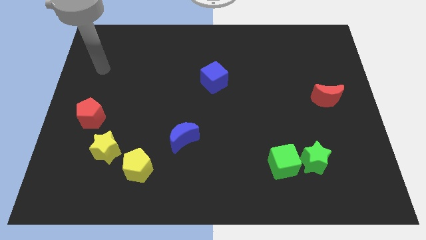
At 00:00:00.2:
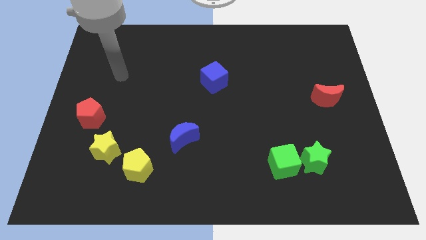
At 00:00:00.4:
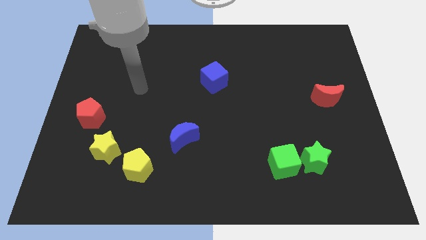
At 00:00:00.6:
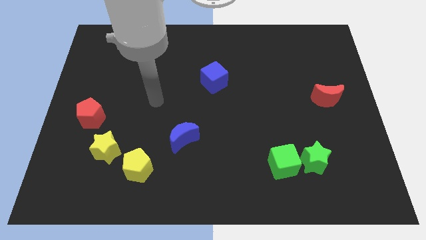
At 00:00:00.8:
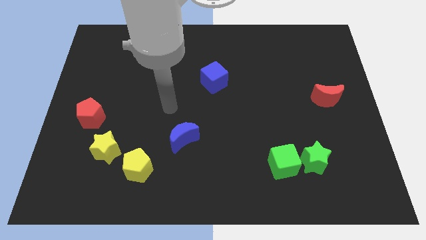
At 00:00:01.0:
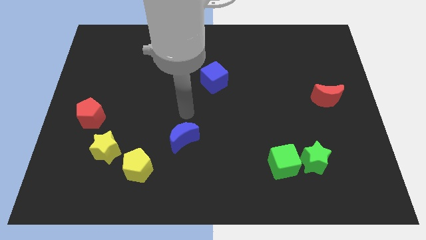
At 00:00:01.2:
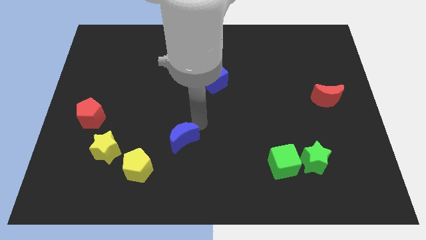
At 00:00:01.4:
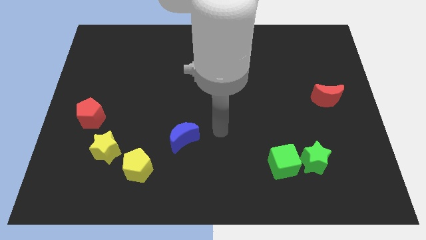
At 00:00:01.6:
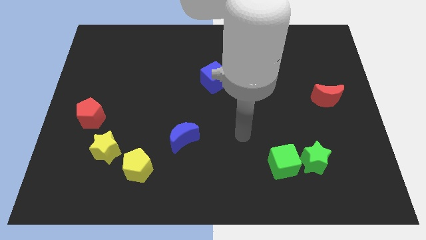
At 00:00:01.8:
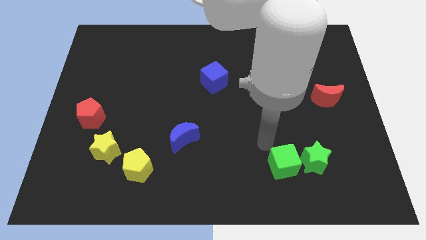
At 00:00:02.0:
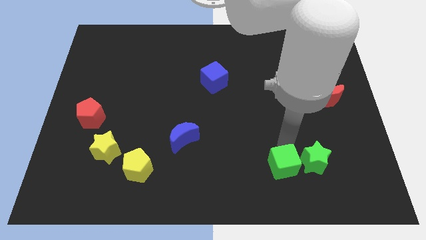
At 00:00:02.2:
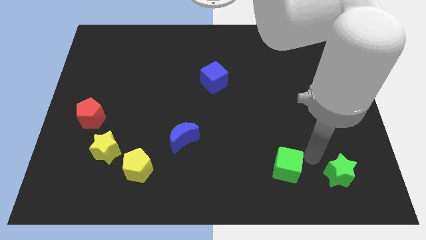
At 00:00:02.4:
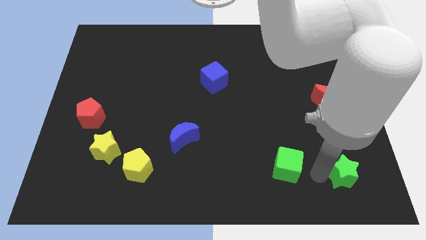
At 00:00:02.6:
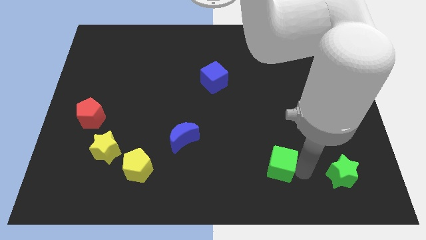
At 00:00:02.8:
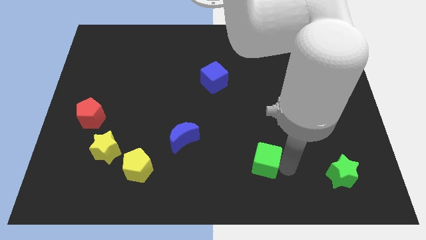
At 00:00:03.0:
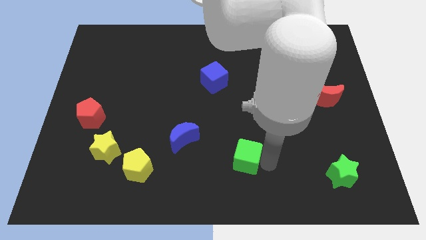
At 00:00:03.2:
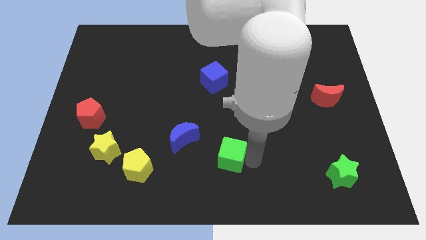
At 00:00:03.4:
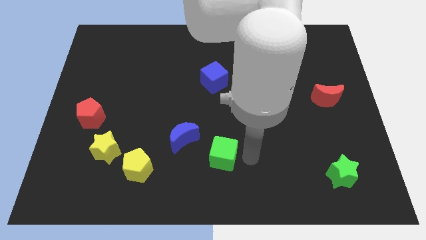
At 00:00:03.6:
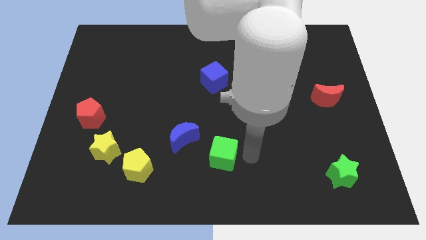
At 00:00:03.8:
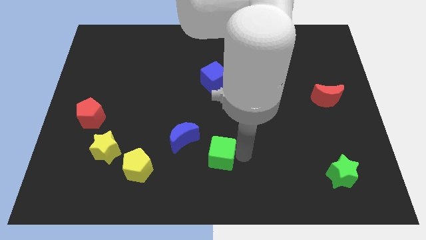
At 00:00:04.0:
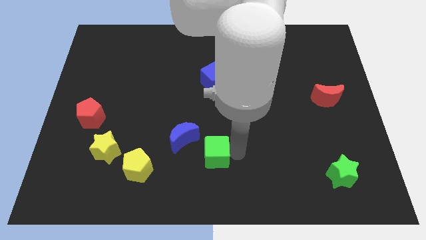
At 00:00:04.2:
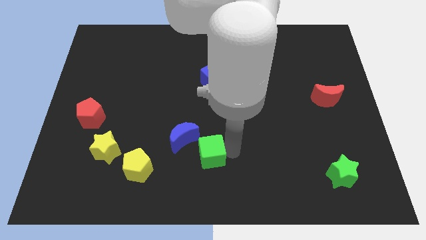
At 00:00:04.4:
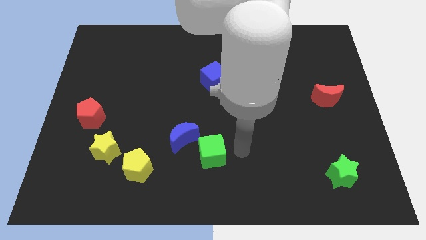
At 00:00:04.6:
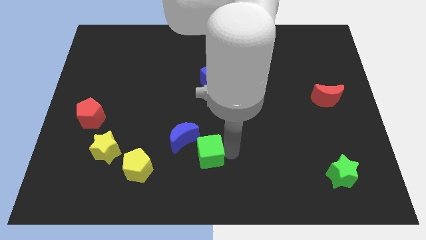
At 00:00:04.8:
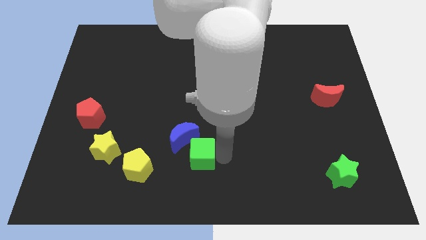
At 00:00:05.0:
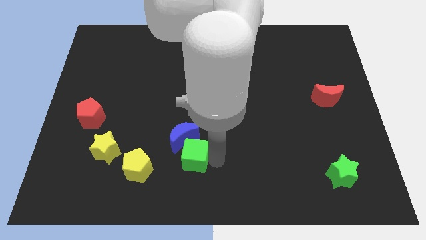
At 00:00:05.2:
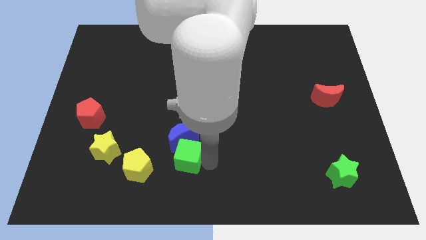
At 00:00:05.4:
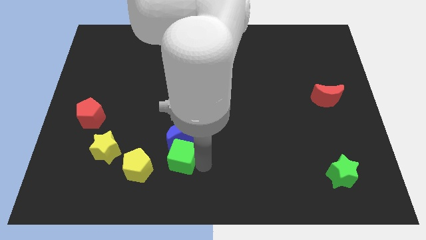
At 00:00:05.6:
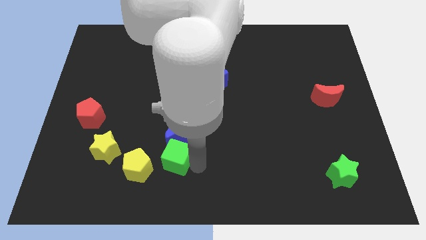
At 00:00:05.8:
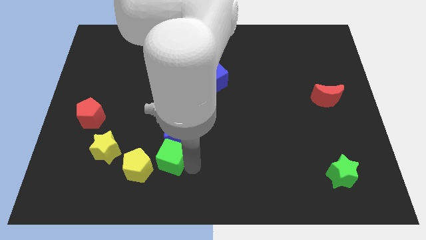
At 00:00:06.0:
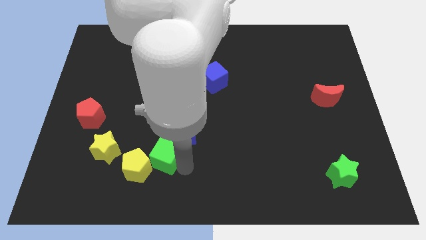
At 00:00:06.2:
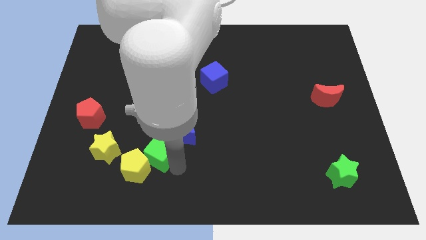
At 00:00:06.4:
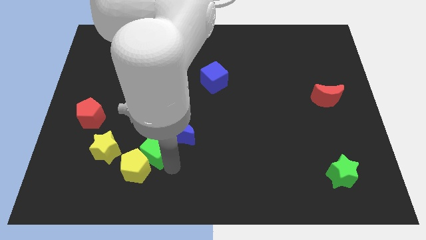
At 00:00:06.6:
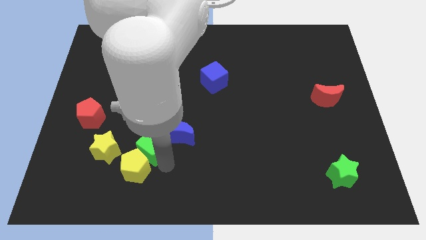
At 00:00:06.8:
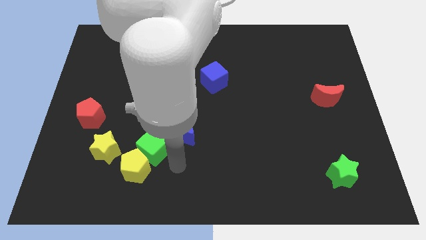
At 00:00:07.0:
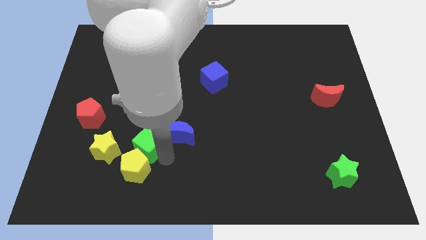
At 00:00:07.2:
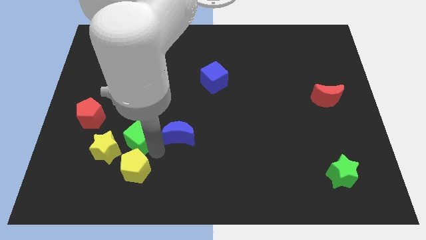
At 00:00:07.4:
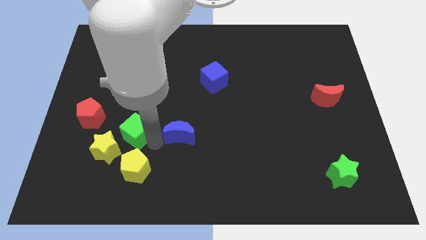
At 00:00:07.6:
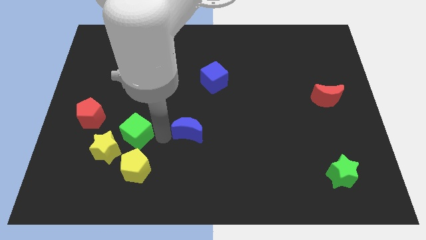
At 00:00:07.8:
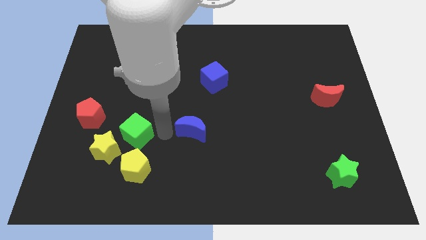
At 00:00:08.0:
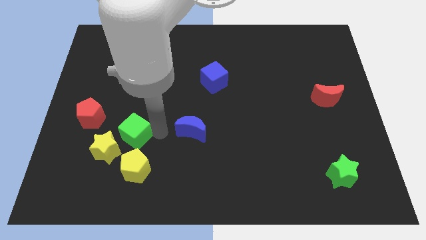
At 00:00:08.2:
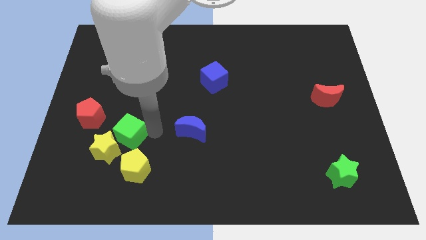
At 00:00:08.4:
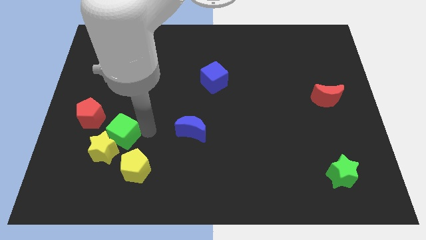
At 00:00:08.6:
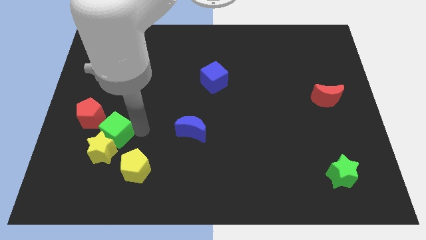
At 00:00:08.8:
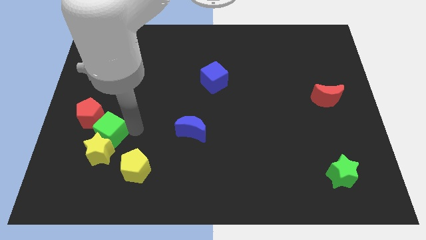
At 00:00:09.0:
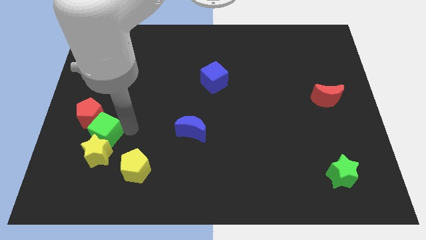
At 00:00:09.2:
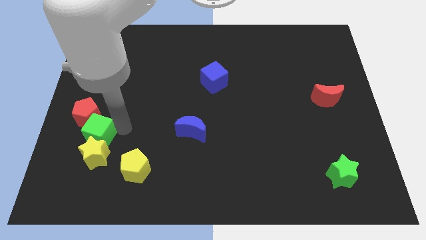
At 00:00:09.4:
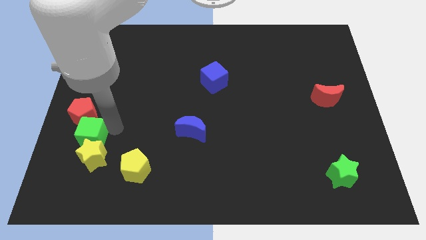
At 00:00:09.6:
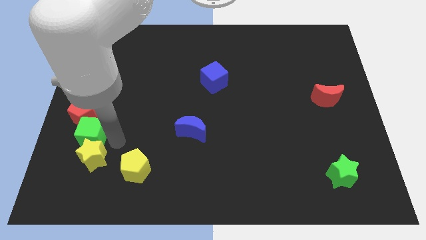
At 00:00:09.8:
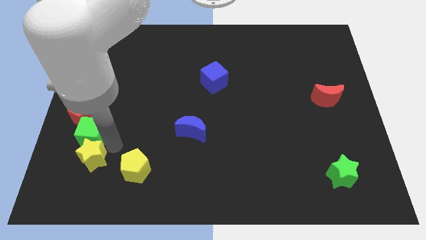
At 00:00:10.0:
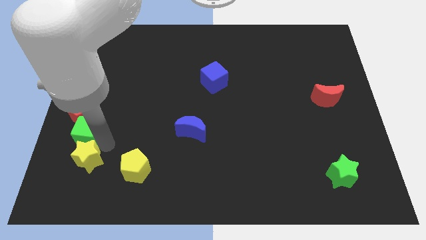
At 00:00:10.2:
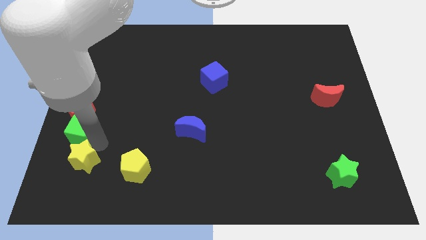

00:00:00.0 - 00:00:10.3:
push the green cube to the left side of the board

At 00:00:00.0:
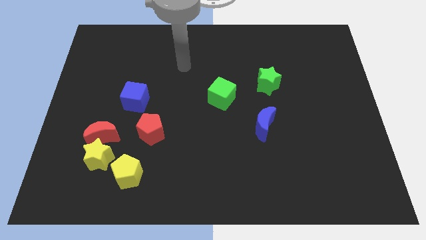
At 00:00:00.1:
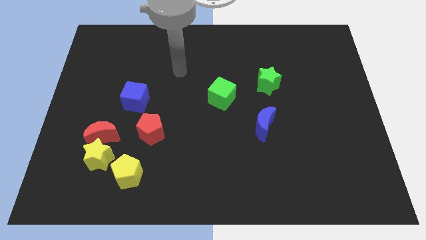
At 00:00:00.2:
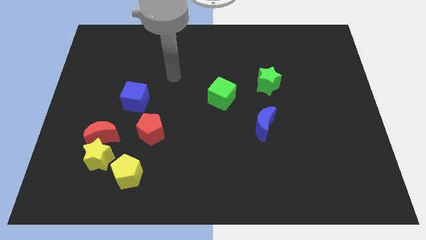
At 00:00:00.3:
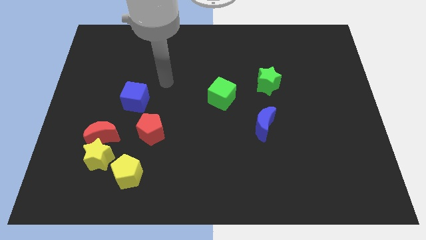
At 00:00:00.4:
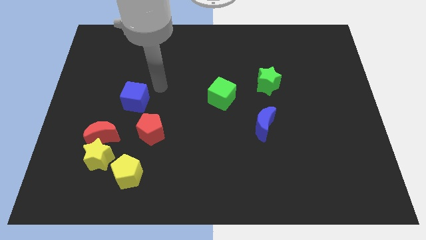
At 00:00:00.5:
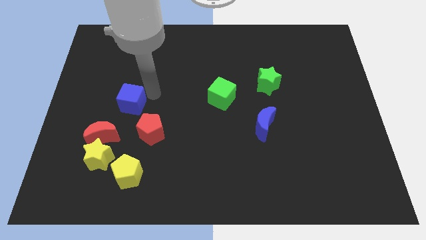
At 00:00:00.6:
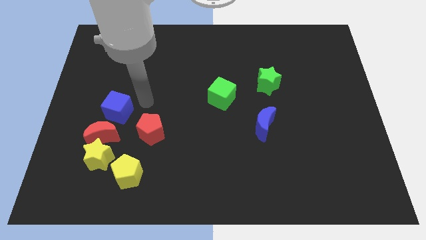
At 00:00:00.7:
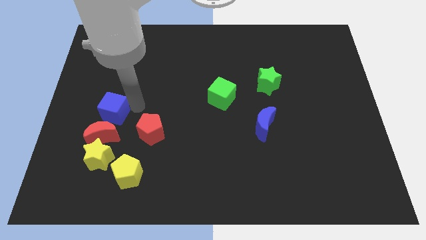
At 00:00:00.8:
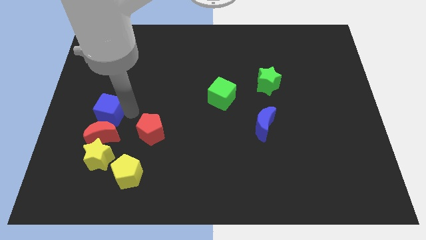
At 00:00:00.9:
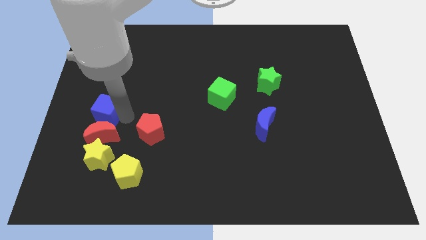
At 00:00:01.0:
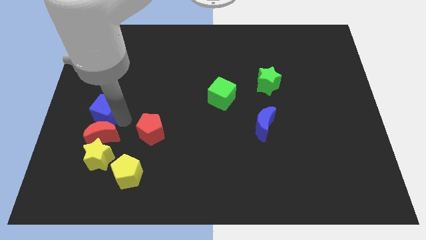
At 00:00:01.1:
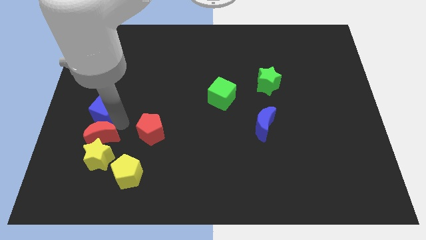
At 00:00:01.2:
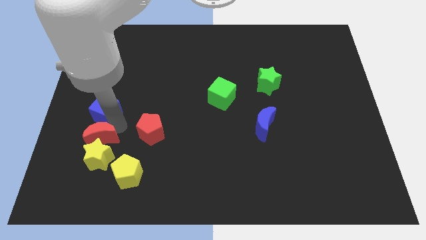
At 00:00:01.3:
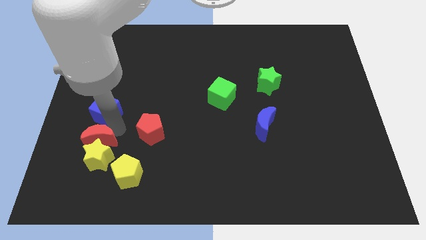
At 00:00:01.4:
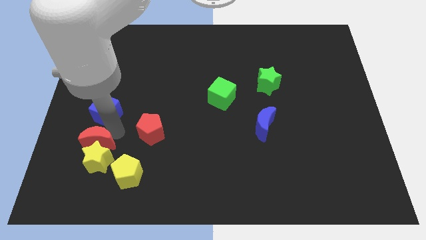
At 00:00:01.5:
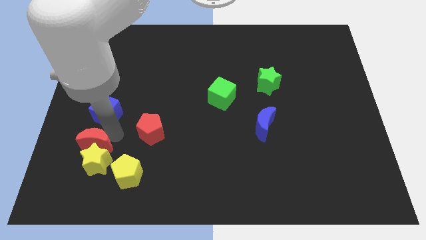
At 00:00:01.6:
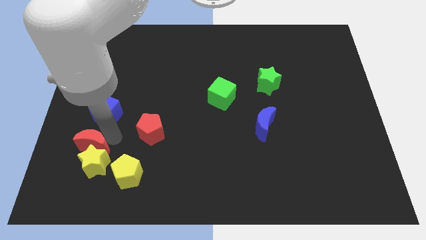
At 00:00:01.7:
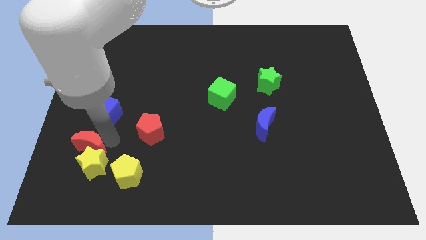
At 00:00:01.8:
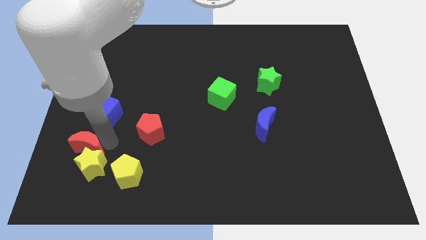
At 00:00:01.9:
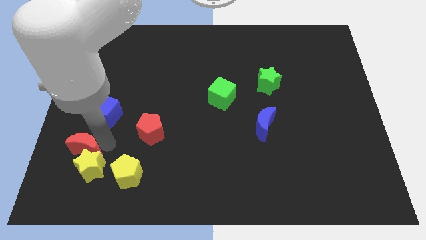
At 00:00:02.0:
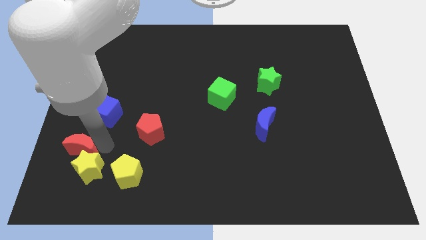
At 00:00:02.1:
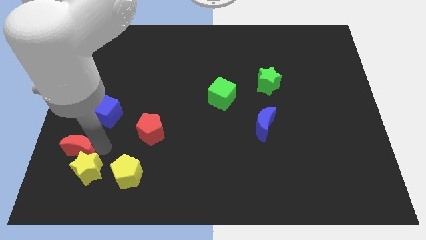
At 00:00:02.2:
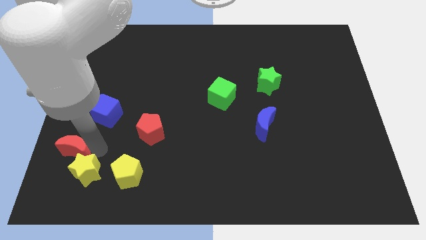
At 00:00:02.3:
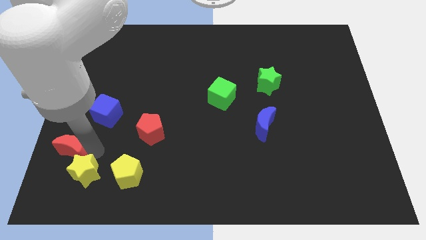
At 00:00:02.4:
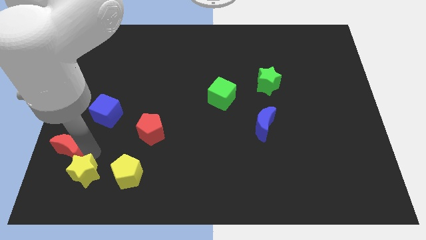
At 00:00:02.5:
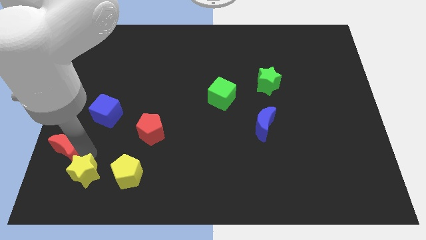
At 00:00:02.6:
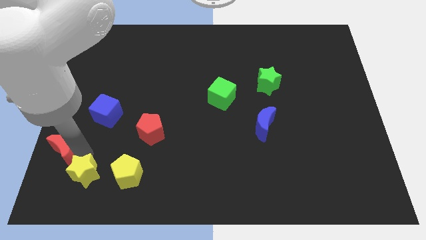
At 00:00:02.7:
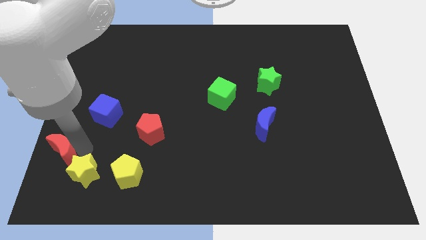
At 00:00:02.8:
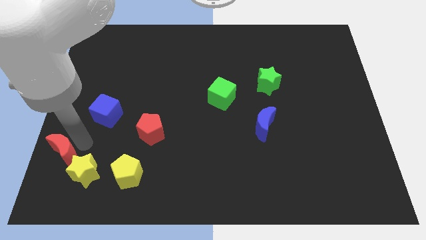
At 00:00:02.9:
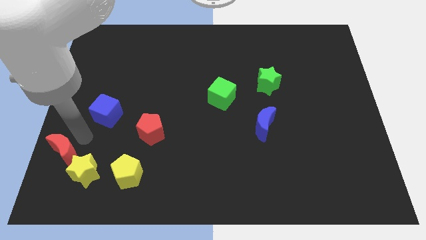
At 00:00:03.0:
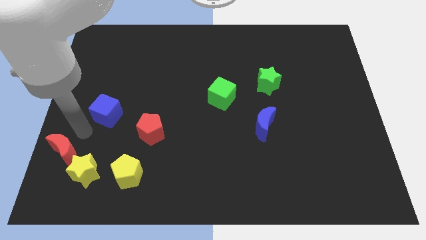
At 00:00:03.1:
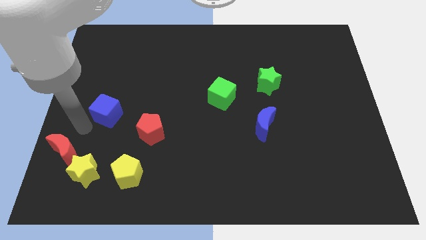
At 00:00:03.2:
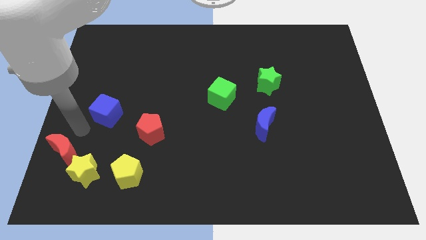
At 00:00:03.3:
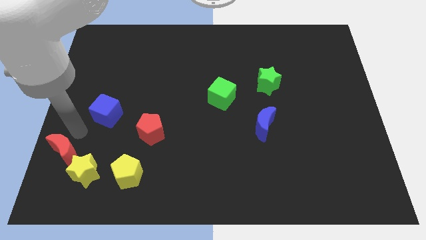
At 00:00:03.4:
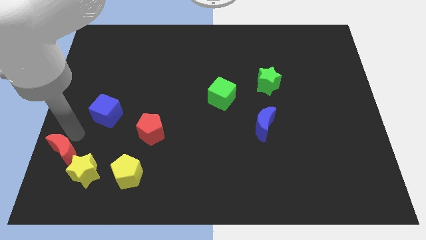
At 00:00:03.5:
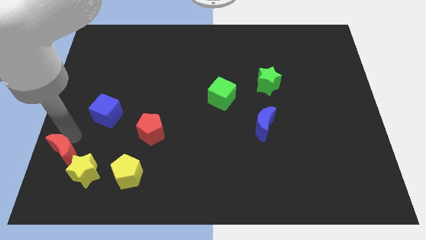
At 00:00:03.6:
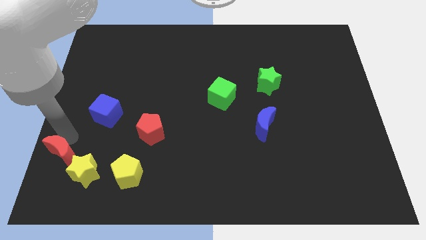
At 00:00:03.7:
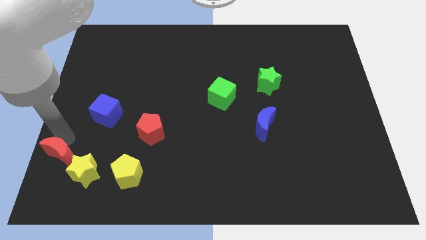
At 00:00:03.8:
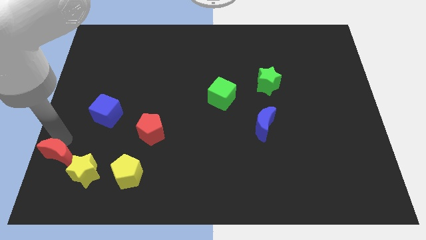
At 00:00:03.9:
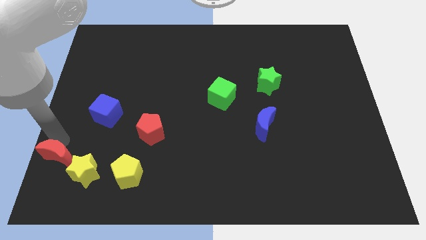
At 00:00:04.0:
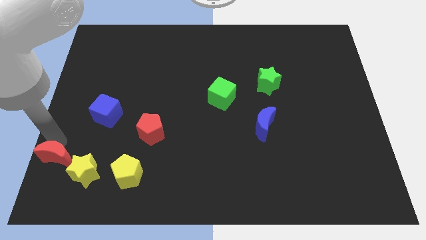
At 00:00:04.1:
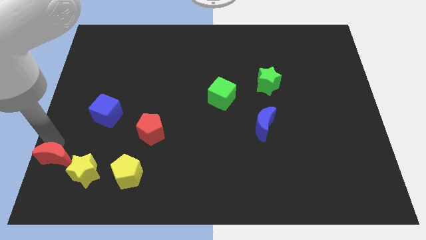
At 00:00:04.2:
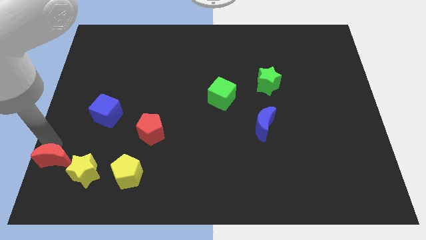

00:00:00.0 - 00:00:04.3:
push the red moon to the bottom left corner
